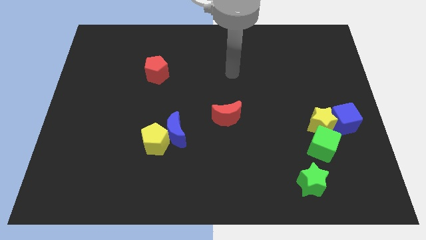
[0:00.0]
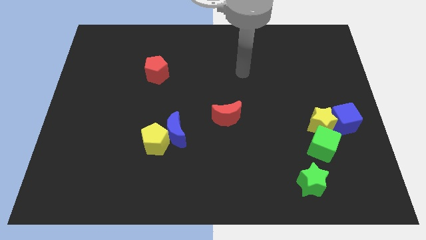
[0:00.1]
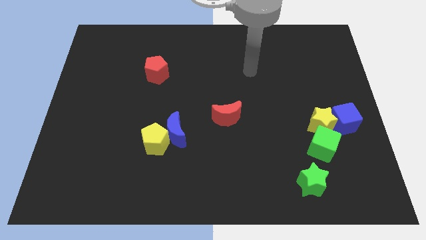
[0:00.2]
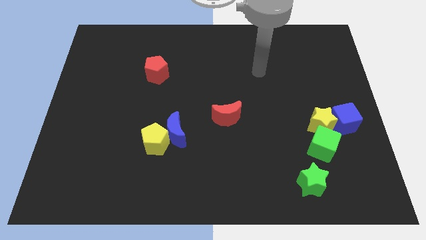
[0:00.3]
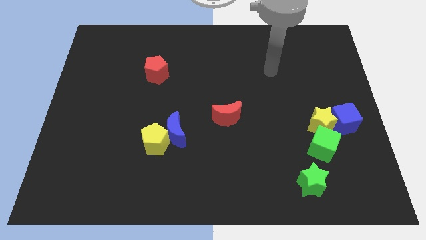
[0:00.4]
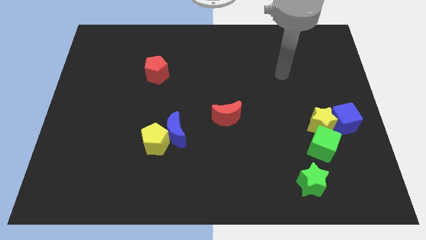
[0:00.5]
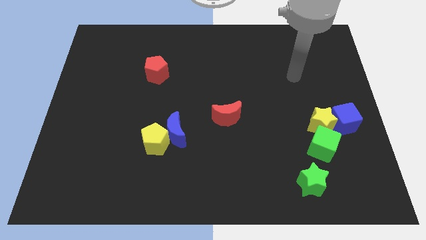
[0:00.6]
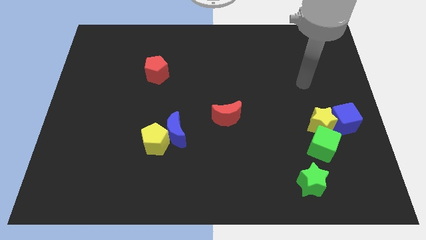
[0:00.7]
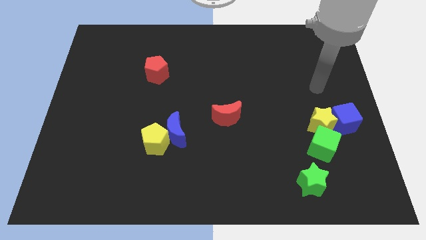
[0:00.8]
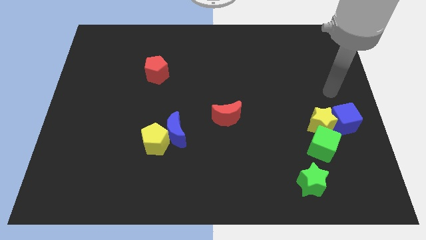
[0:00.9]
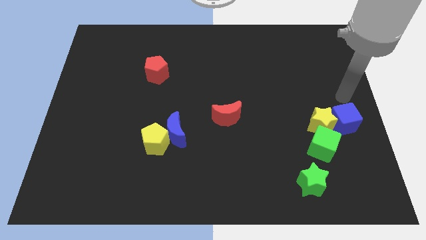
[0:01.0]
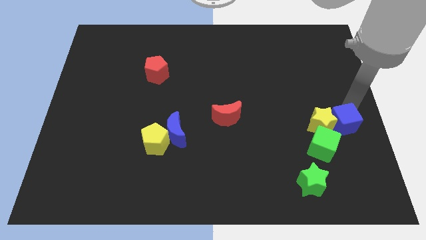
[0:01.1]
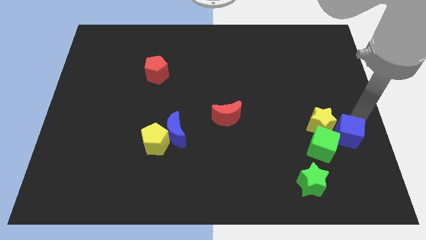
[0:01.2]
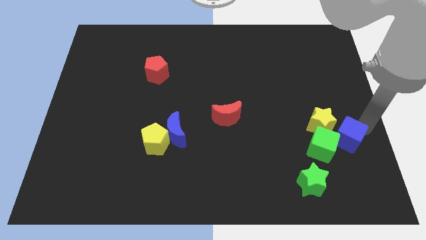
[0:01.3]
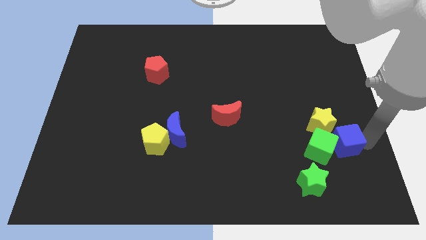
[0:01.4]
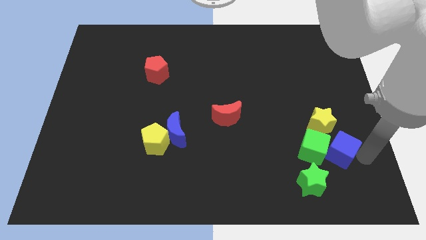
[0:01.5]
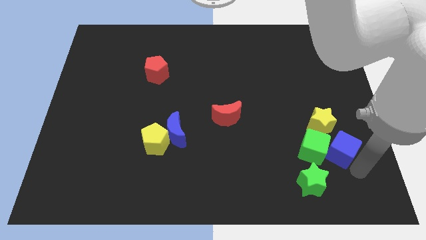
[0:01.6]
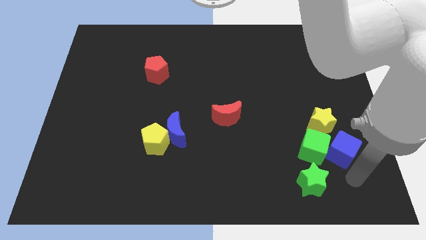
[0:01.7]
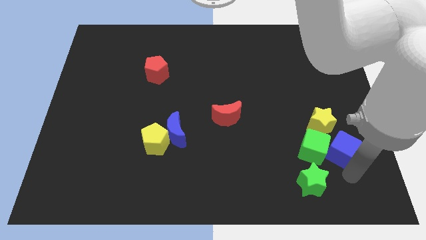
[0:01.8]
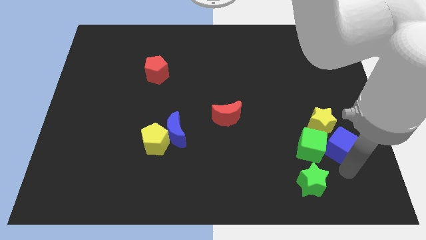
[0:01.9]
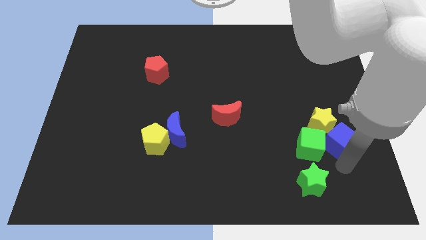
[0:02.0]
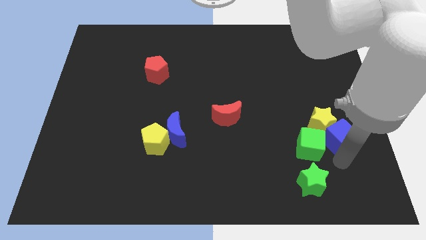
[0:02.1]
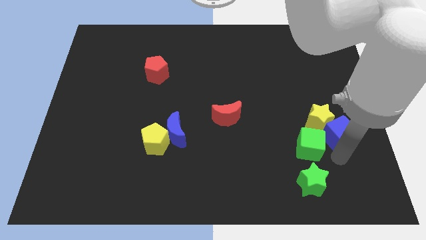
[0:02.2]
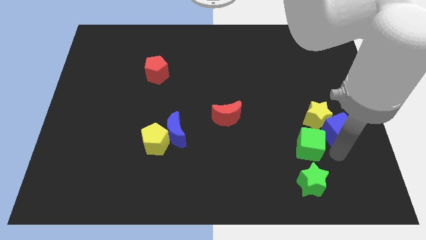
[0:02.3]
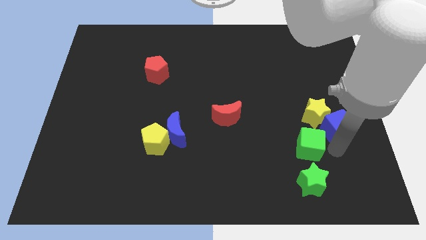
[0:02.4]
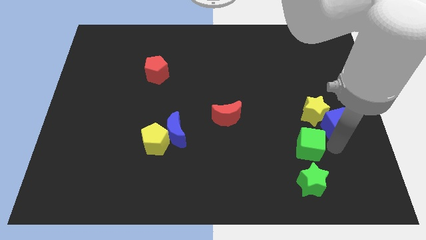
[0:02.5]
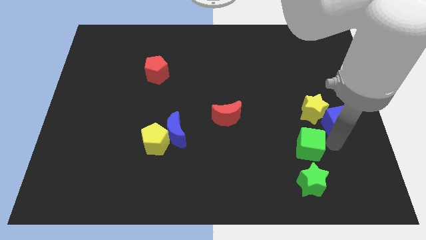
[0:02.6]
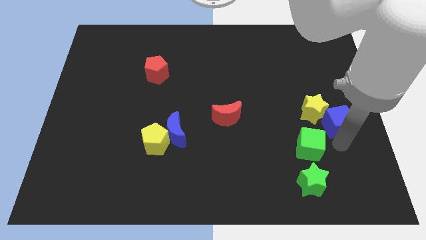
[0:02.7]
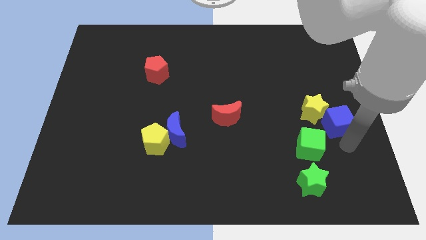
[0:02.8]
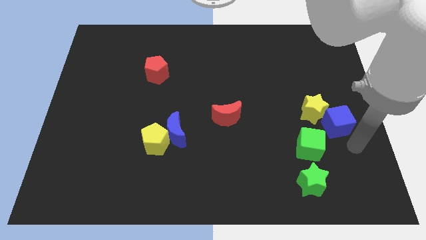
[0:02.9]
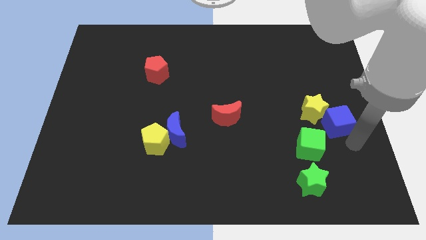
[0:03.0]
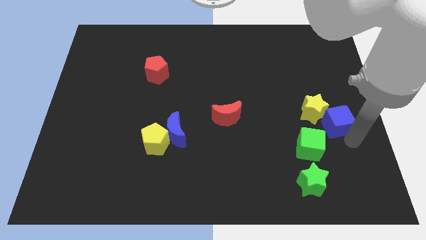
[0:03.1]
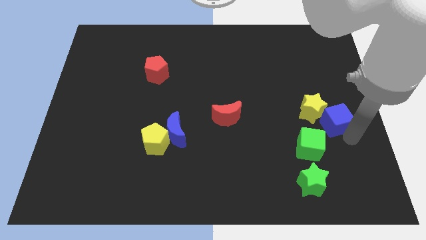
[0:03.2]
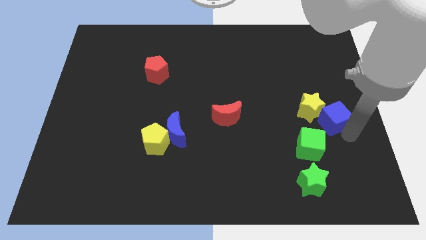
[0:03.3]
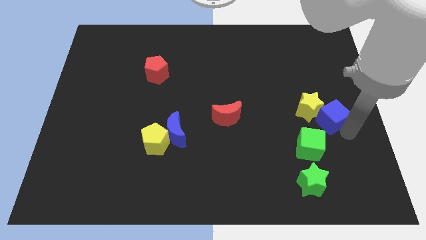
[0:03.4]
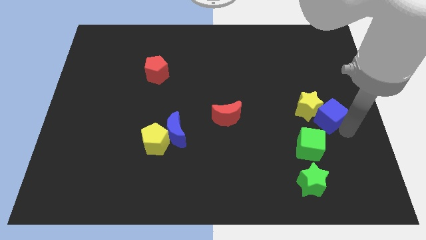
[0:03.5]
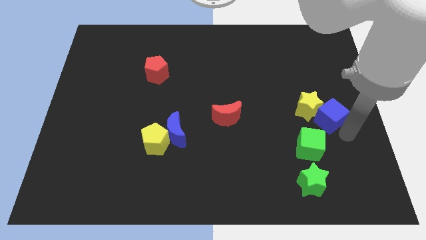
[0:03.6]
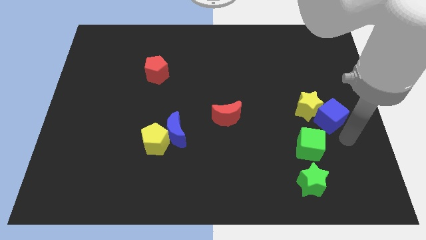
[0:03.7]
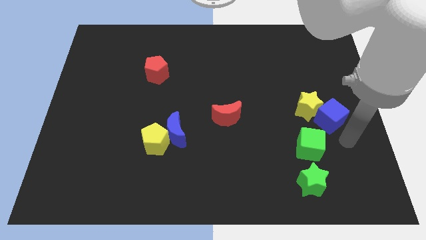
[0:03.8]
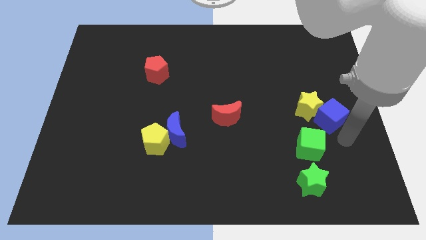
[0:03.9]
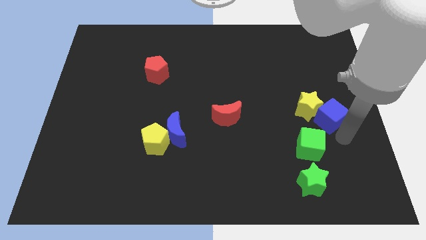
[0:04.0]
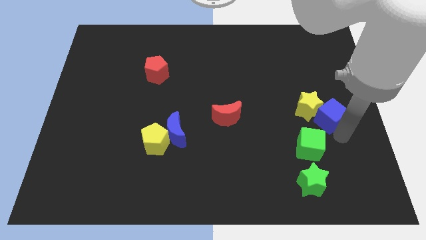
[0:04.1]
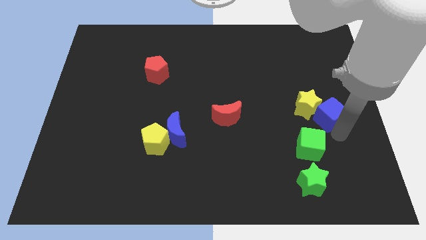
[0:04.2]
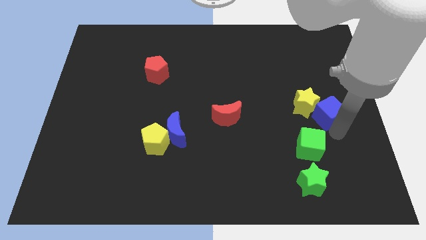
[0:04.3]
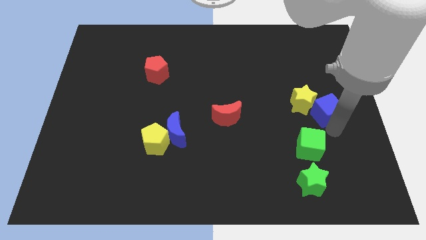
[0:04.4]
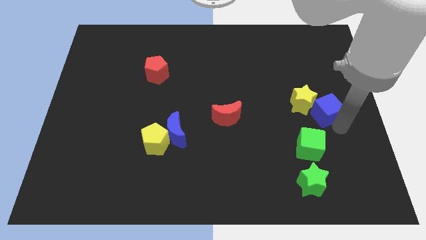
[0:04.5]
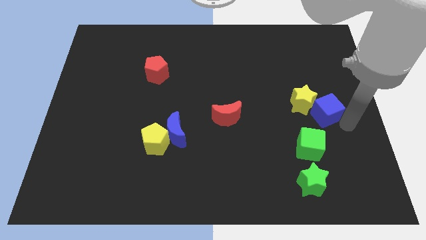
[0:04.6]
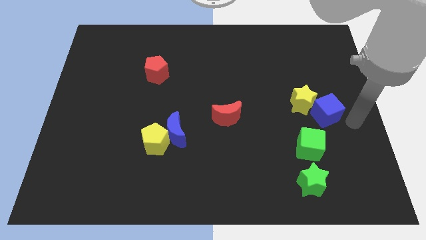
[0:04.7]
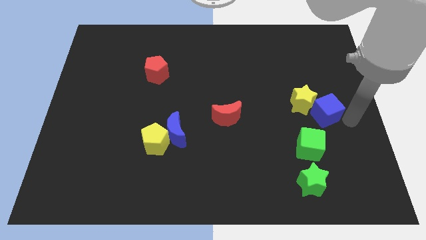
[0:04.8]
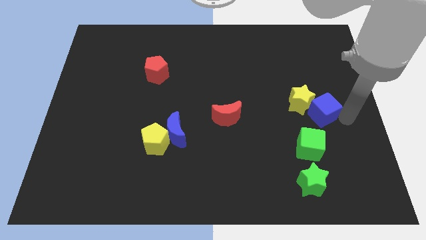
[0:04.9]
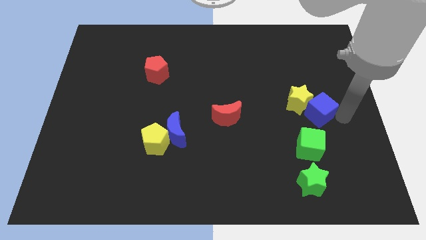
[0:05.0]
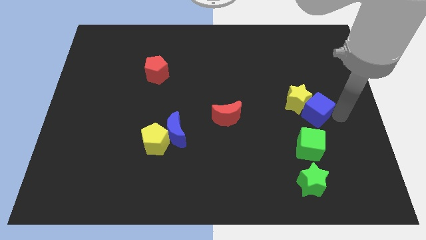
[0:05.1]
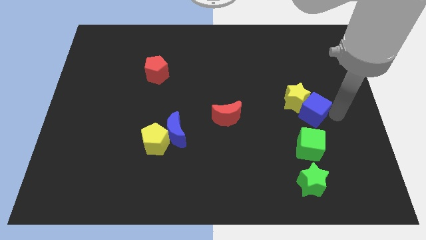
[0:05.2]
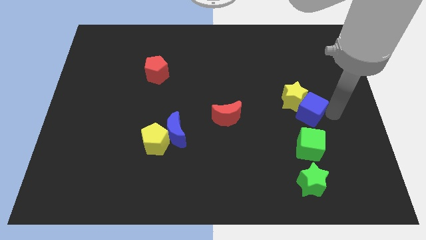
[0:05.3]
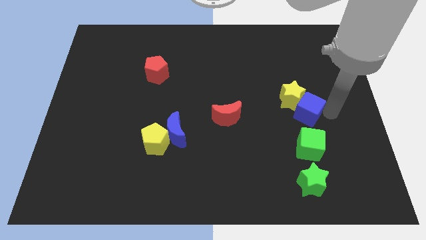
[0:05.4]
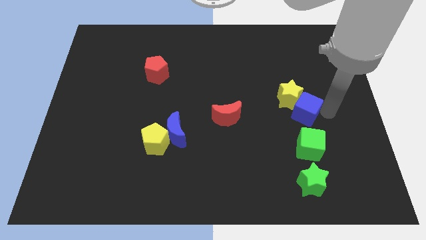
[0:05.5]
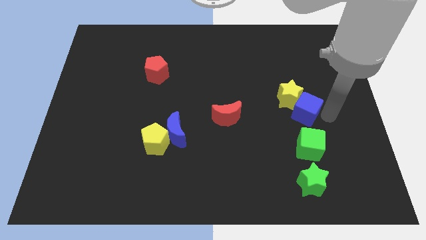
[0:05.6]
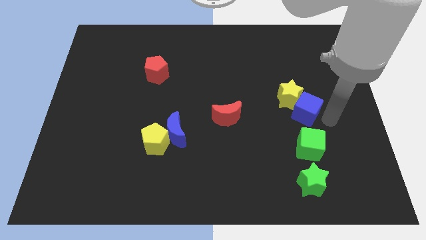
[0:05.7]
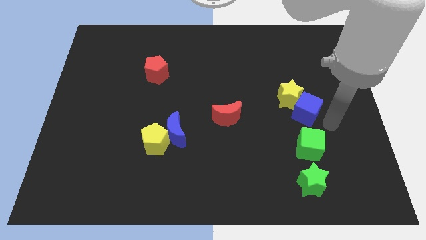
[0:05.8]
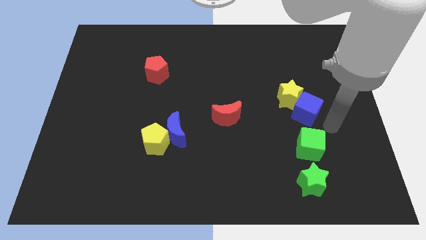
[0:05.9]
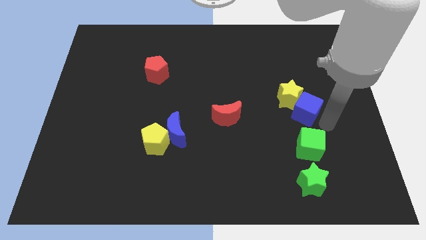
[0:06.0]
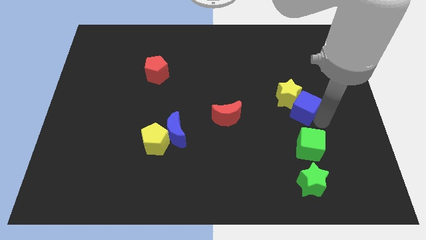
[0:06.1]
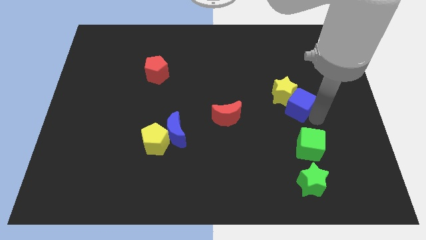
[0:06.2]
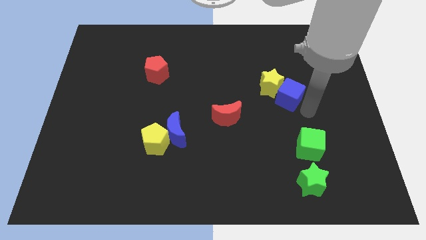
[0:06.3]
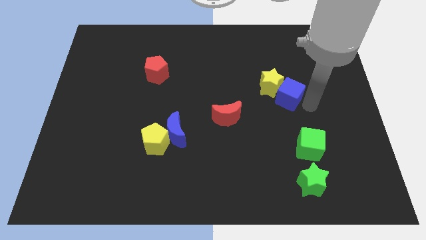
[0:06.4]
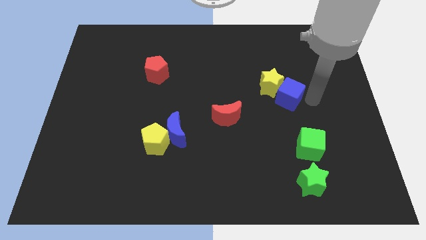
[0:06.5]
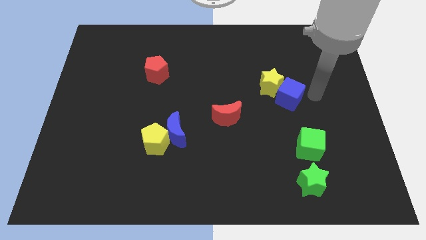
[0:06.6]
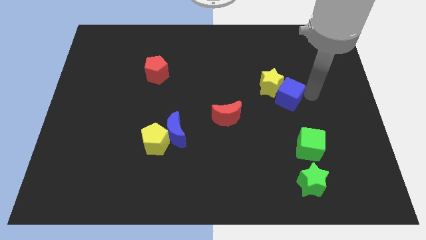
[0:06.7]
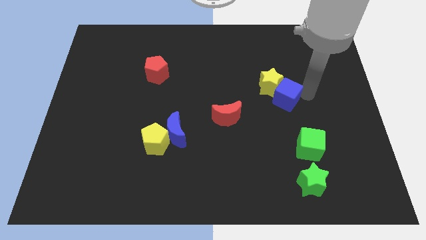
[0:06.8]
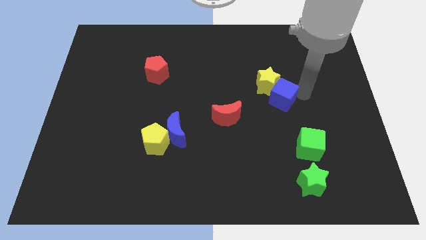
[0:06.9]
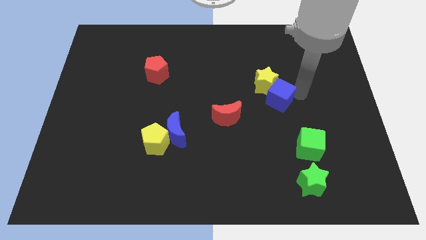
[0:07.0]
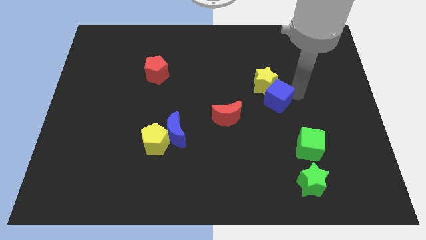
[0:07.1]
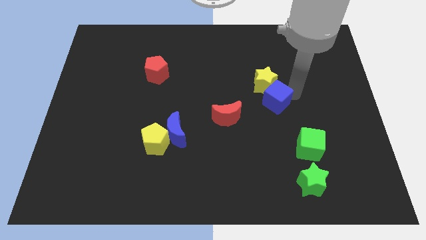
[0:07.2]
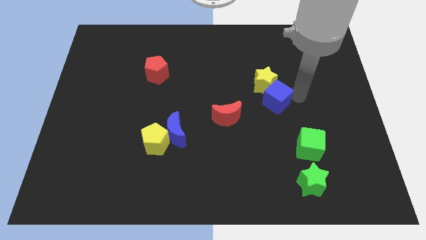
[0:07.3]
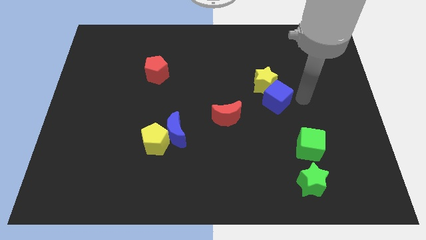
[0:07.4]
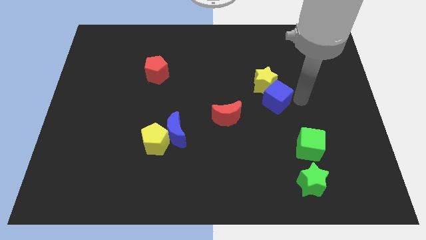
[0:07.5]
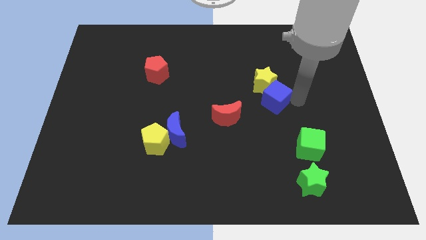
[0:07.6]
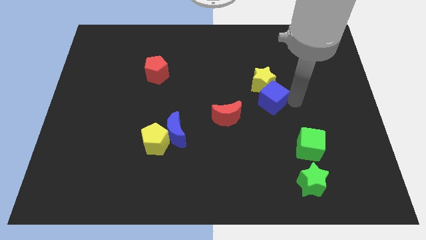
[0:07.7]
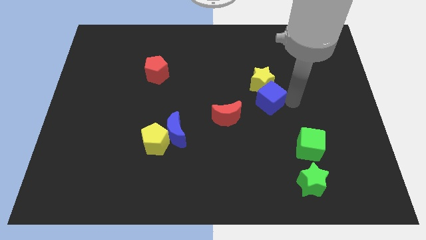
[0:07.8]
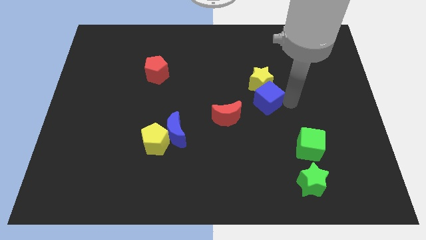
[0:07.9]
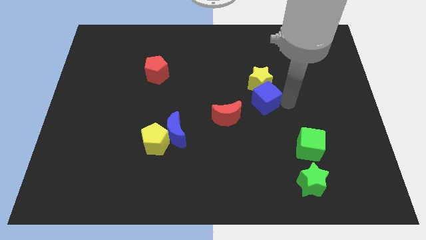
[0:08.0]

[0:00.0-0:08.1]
slide the blue cube to the center of the board
